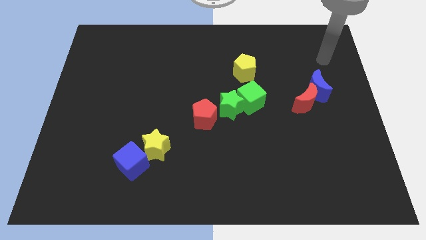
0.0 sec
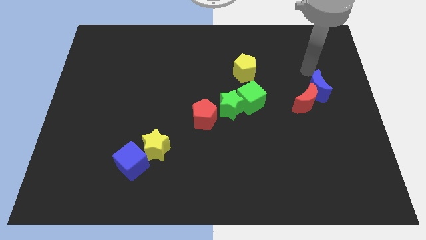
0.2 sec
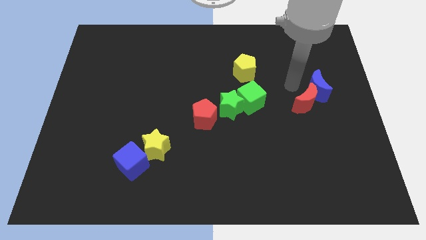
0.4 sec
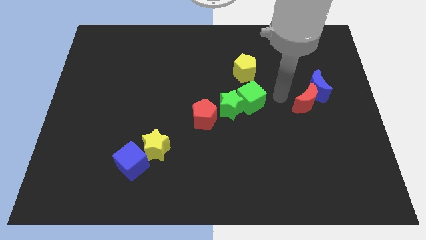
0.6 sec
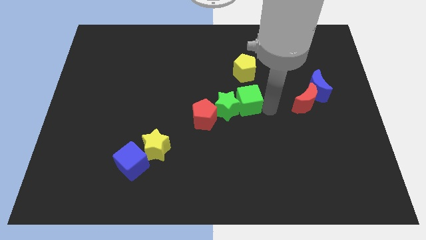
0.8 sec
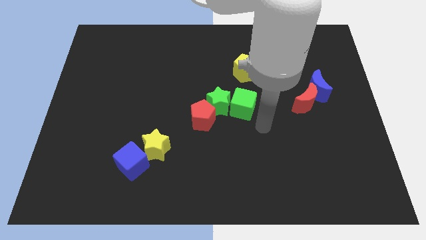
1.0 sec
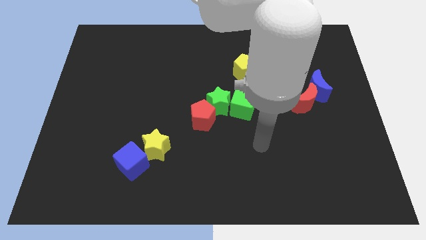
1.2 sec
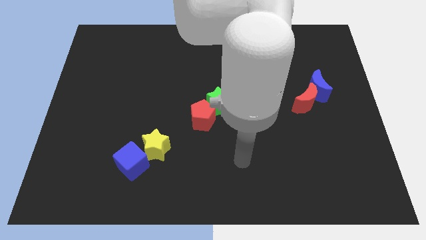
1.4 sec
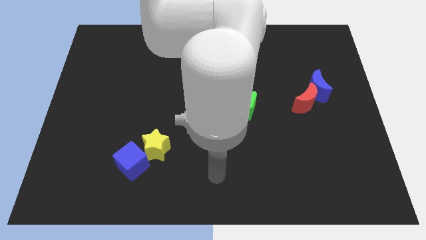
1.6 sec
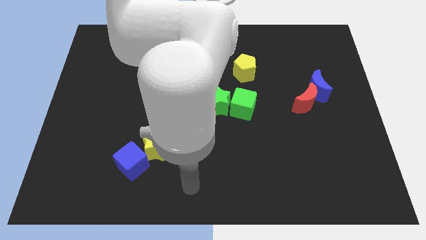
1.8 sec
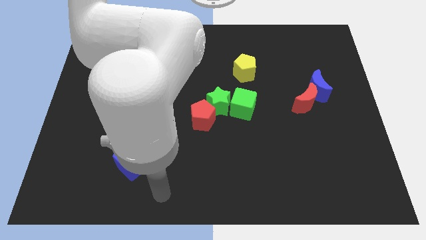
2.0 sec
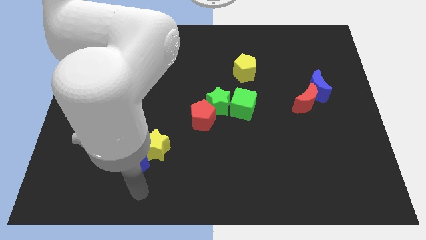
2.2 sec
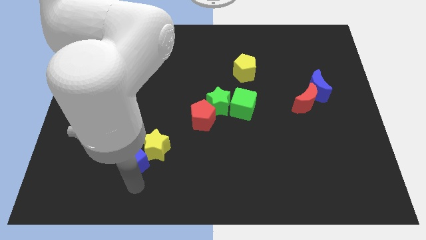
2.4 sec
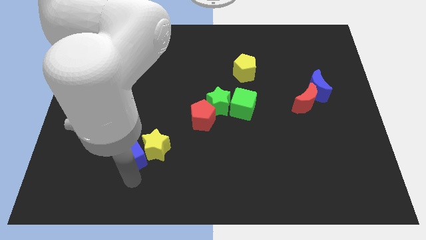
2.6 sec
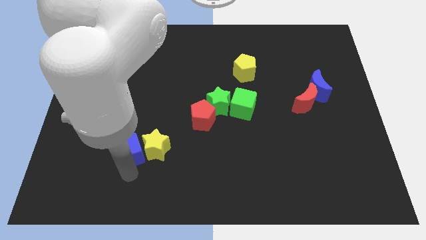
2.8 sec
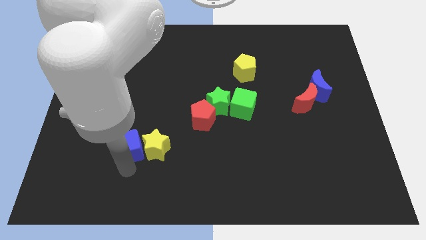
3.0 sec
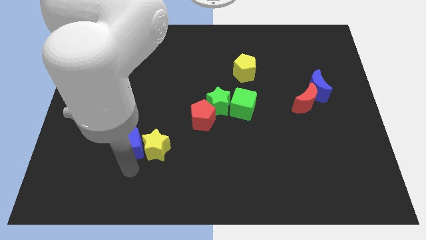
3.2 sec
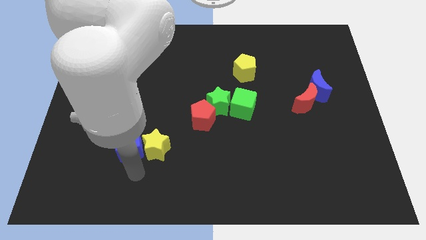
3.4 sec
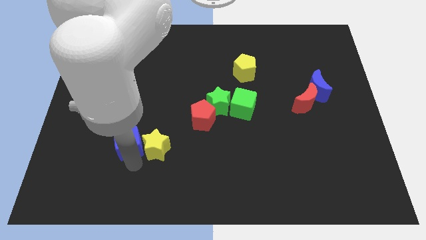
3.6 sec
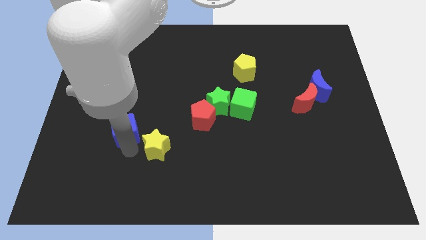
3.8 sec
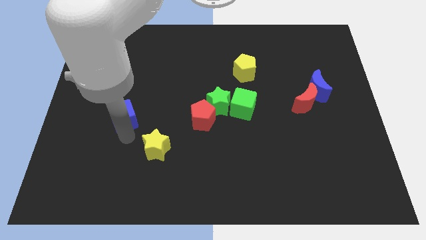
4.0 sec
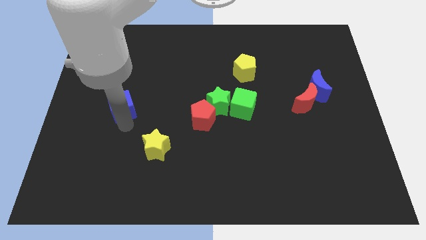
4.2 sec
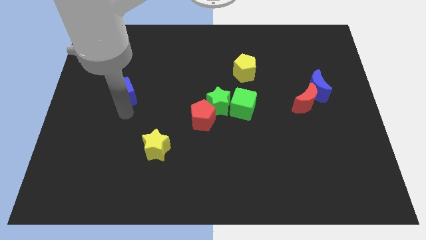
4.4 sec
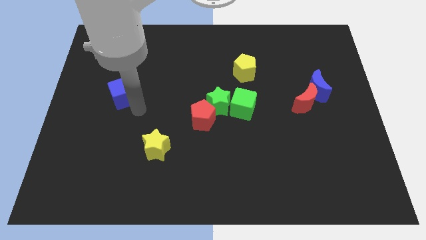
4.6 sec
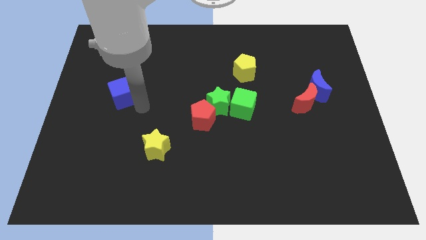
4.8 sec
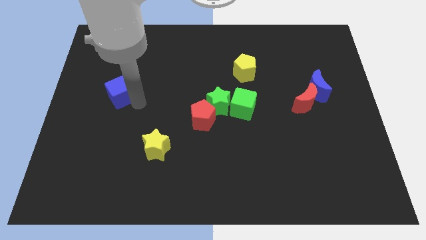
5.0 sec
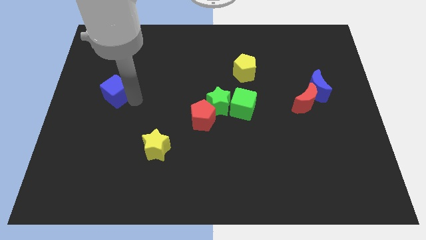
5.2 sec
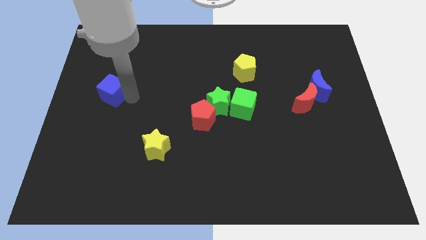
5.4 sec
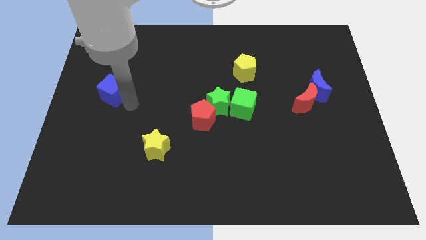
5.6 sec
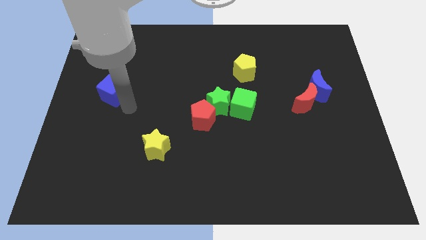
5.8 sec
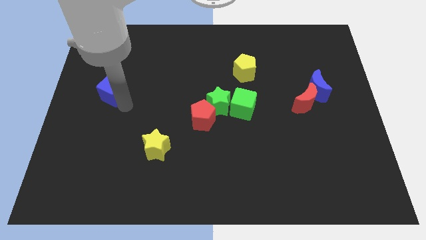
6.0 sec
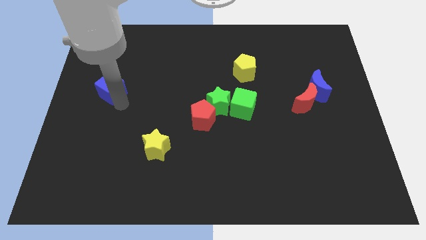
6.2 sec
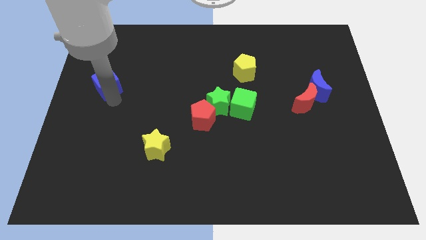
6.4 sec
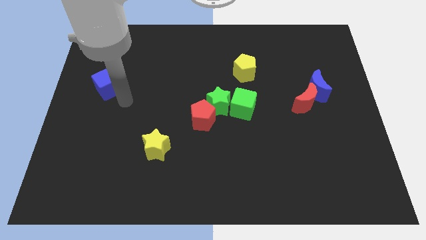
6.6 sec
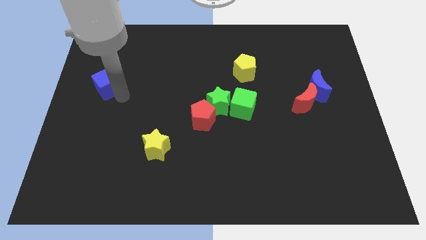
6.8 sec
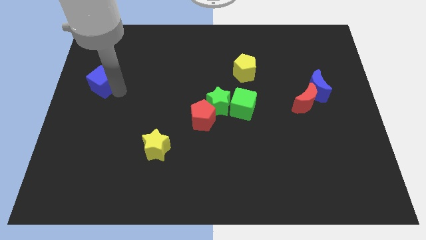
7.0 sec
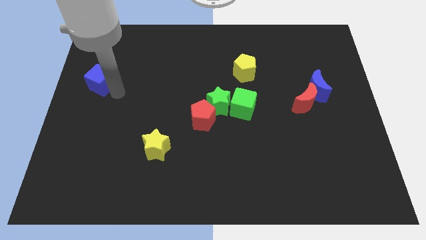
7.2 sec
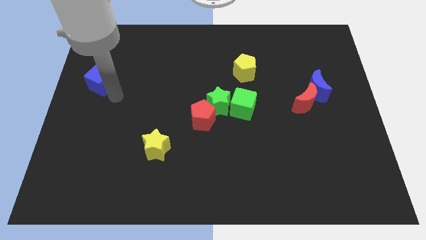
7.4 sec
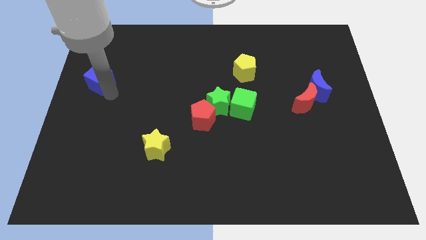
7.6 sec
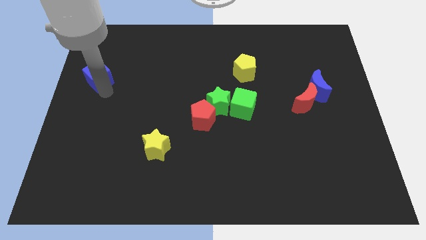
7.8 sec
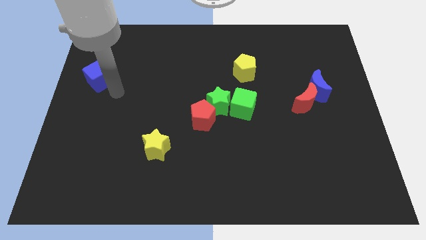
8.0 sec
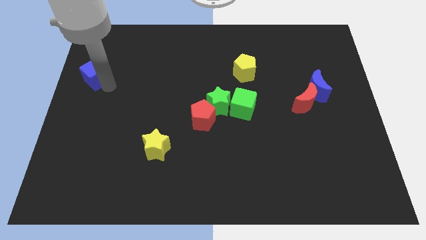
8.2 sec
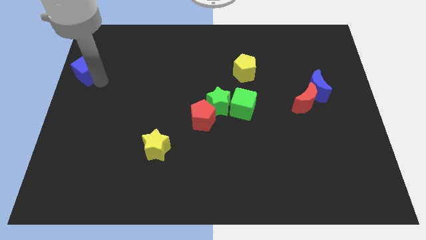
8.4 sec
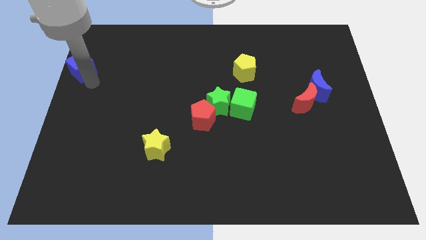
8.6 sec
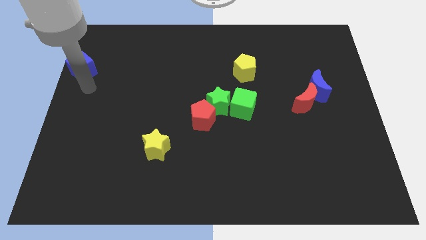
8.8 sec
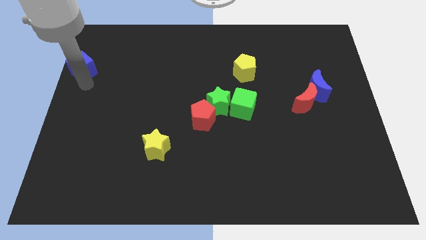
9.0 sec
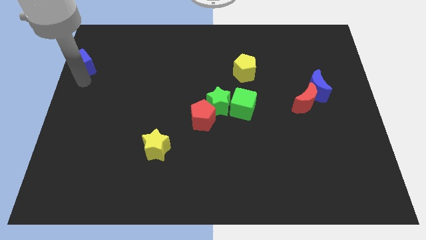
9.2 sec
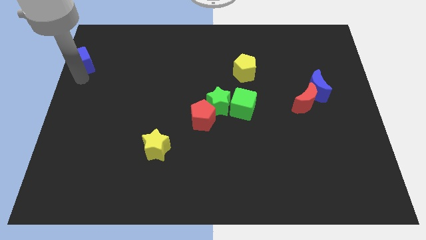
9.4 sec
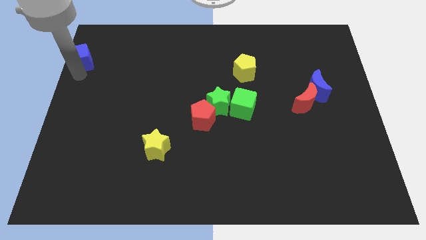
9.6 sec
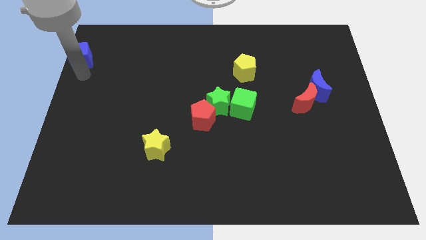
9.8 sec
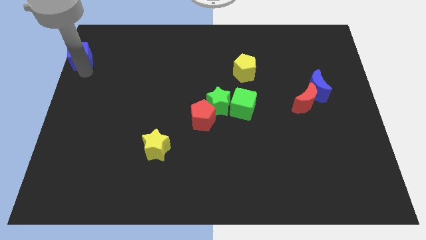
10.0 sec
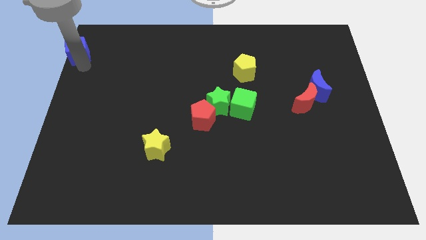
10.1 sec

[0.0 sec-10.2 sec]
push the blue cube to the top left corner

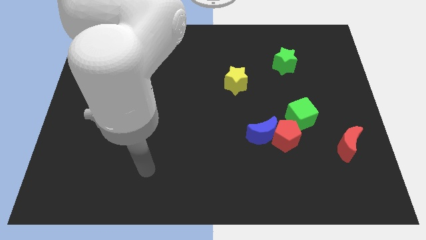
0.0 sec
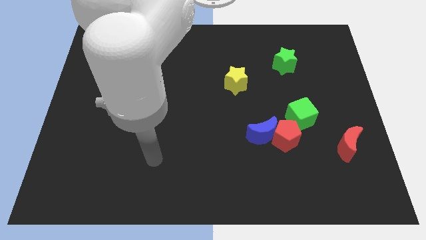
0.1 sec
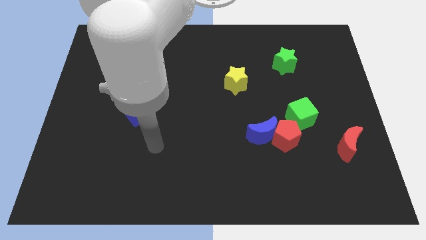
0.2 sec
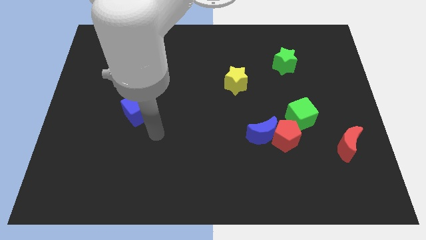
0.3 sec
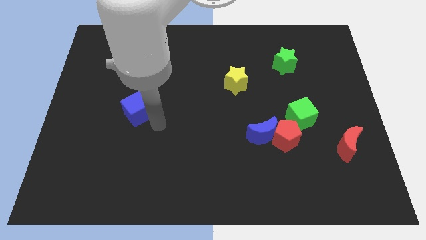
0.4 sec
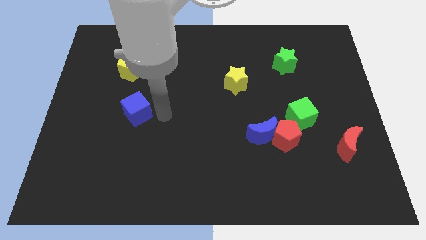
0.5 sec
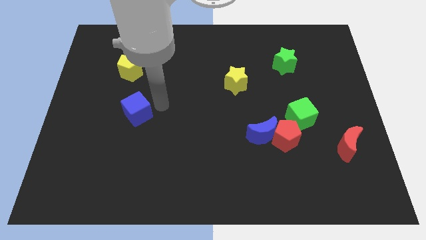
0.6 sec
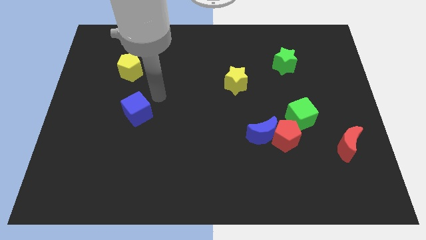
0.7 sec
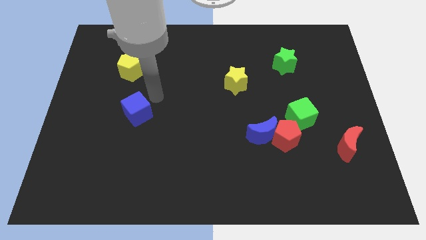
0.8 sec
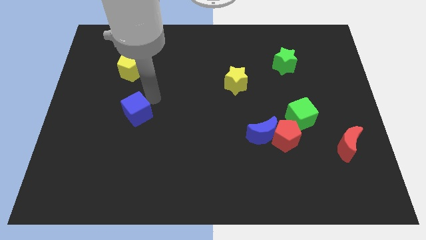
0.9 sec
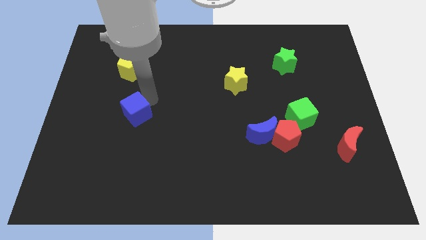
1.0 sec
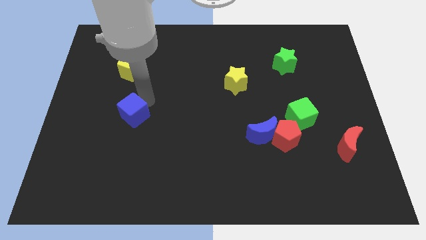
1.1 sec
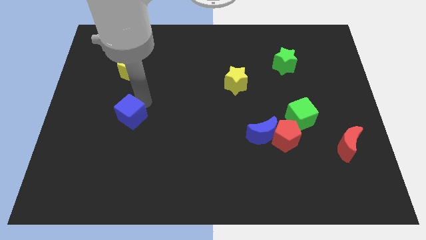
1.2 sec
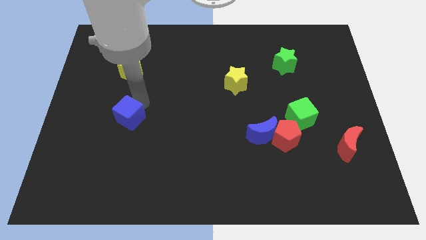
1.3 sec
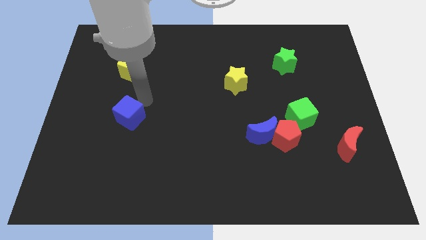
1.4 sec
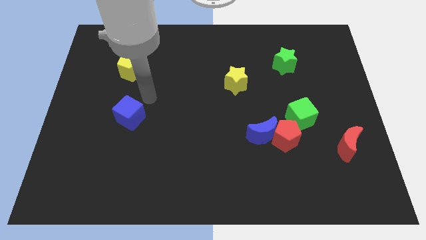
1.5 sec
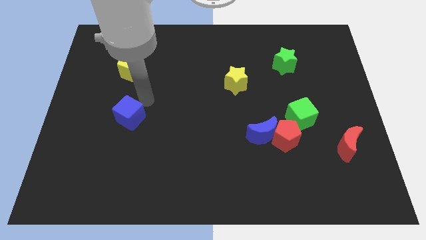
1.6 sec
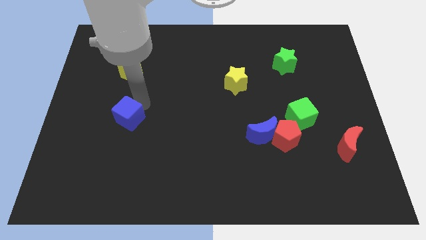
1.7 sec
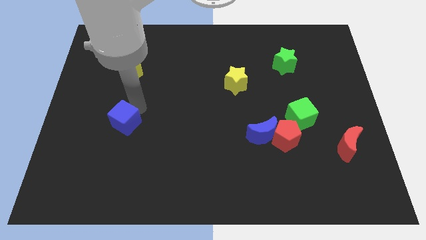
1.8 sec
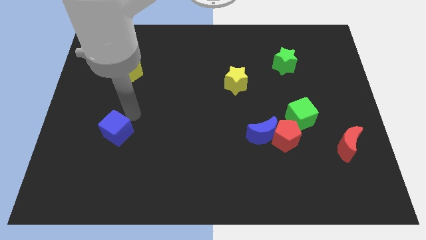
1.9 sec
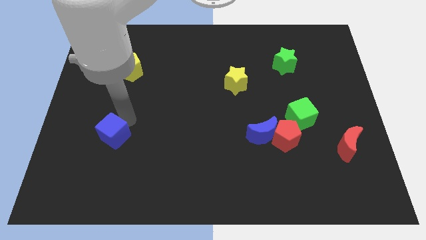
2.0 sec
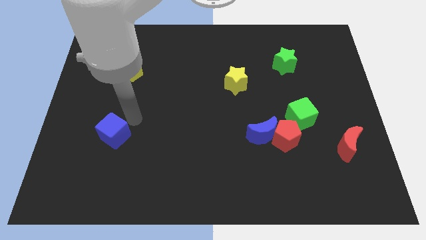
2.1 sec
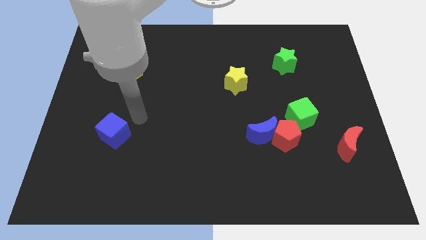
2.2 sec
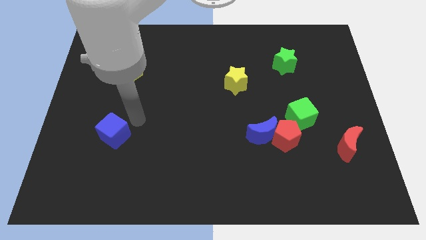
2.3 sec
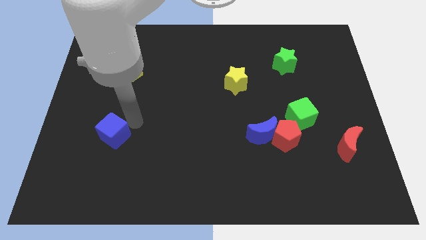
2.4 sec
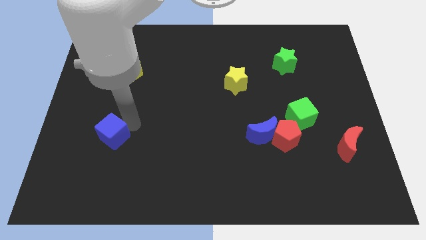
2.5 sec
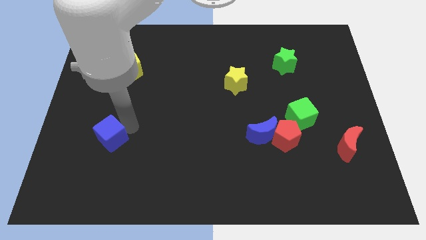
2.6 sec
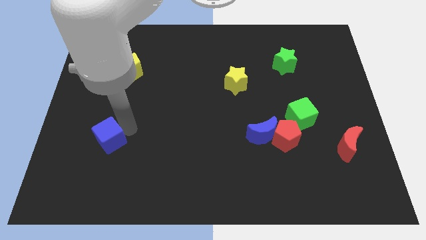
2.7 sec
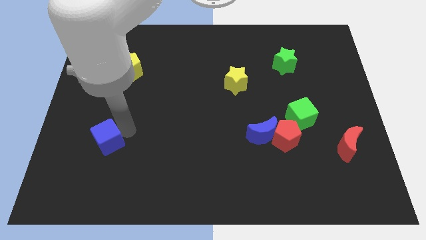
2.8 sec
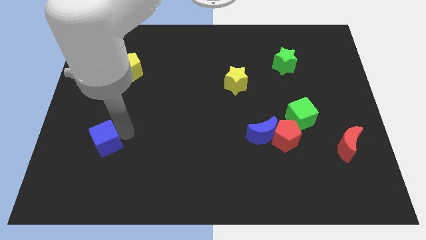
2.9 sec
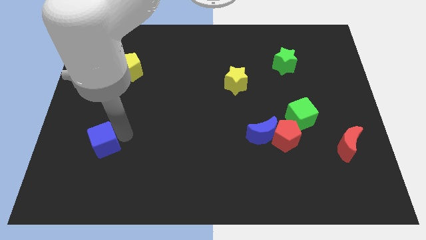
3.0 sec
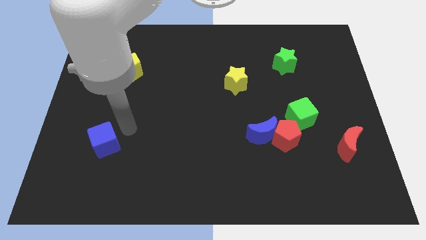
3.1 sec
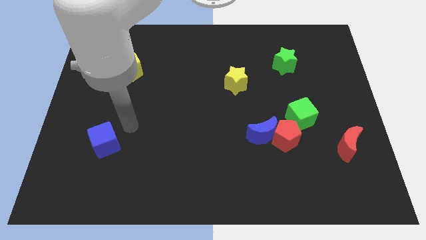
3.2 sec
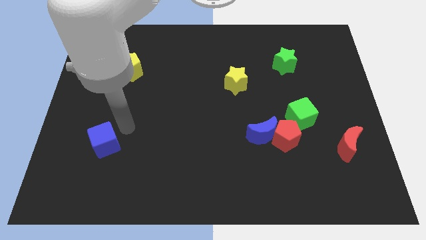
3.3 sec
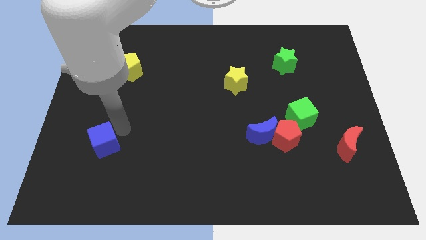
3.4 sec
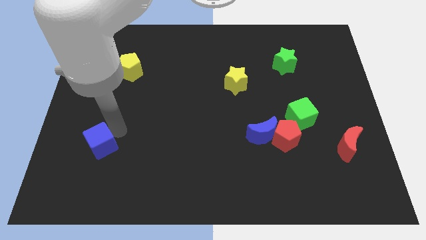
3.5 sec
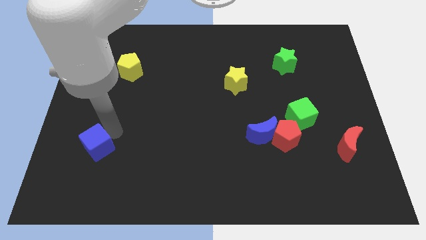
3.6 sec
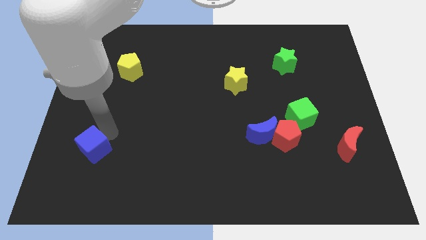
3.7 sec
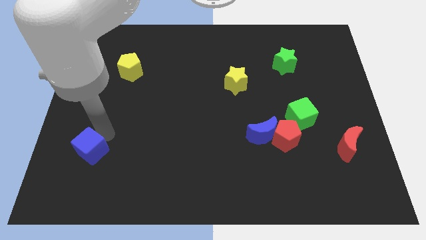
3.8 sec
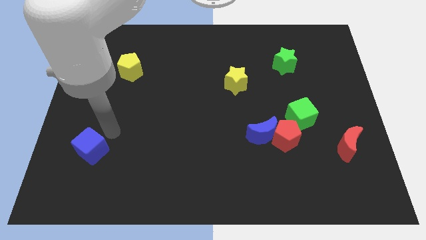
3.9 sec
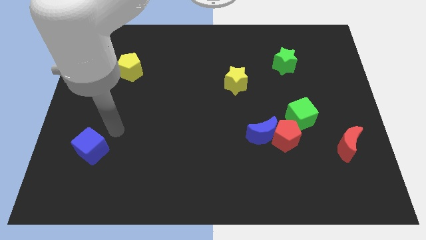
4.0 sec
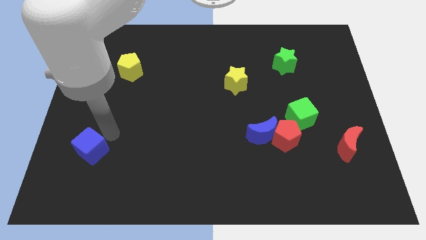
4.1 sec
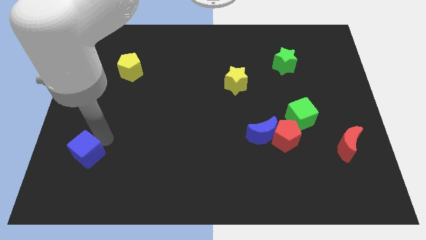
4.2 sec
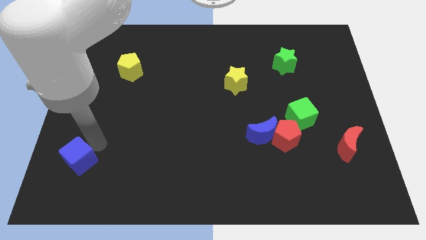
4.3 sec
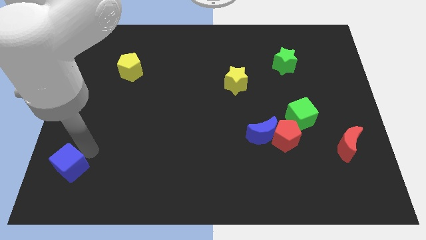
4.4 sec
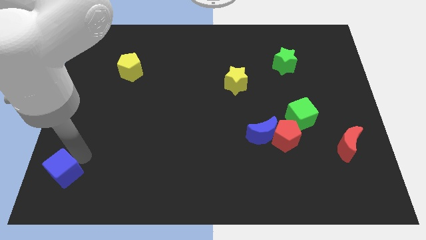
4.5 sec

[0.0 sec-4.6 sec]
push the blue cube to the bottom left
